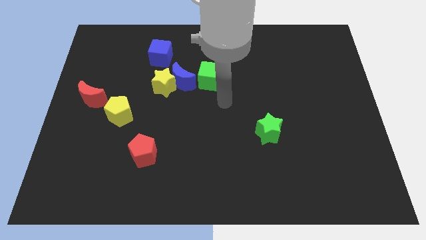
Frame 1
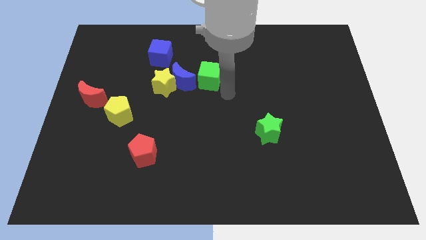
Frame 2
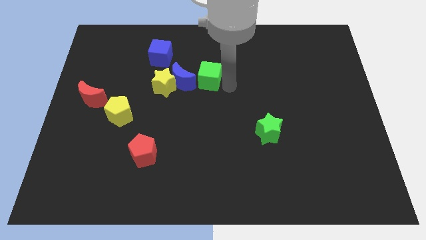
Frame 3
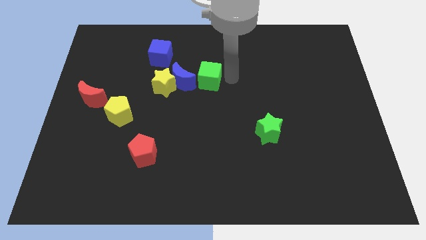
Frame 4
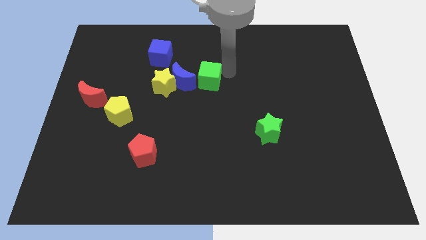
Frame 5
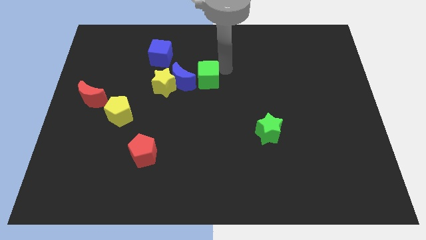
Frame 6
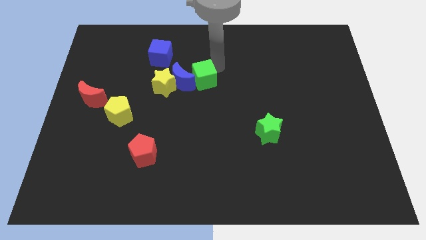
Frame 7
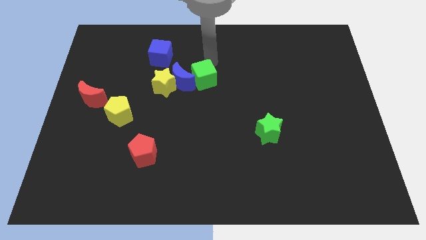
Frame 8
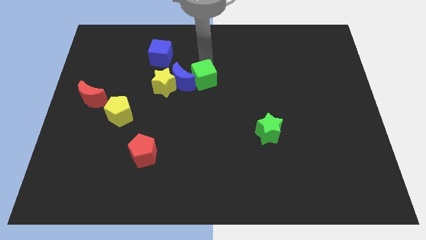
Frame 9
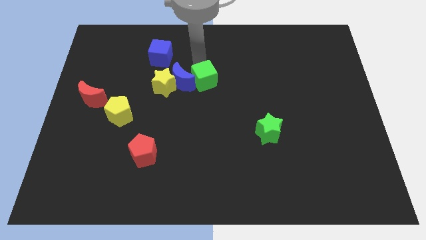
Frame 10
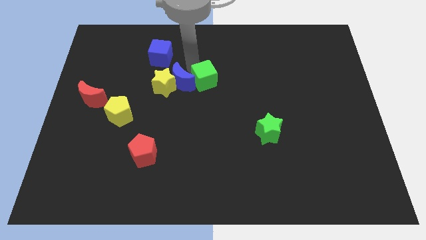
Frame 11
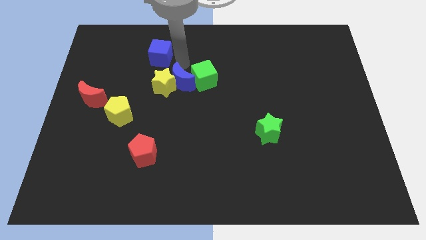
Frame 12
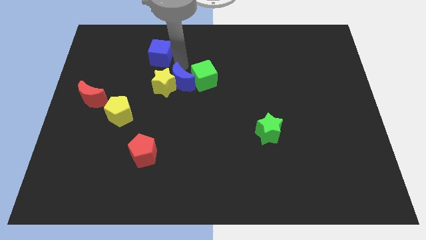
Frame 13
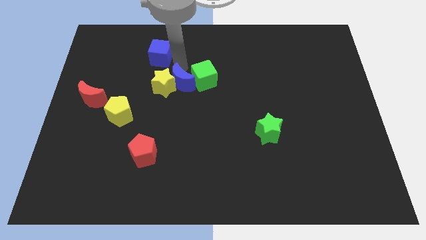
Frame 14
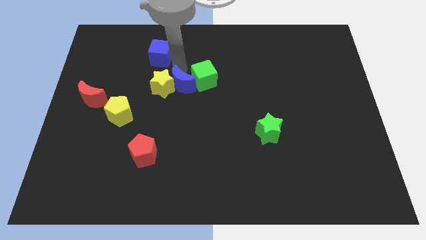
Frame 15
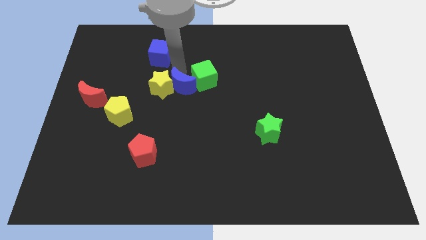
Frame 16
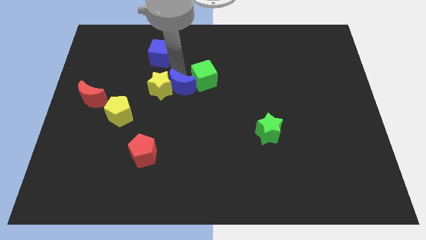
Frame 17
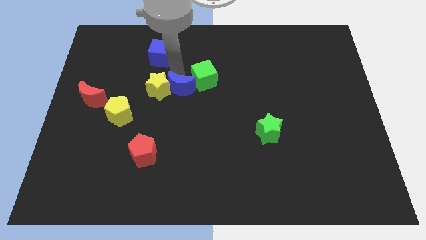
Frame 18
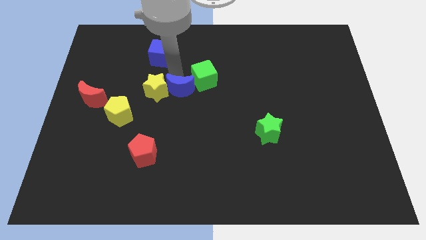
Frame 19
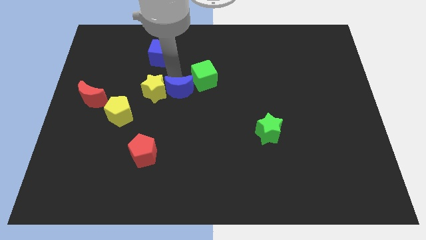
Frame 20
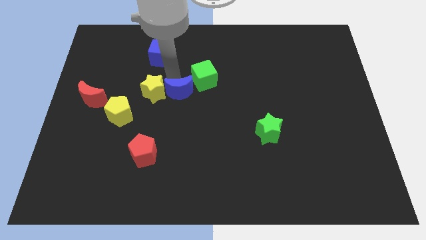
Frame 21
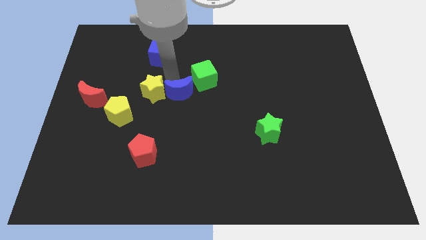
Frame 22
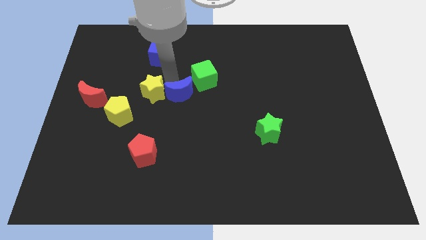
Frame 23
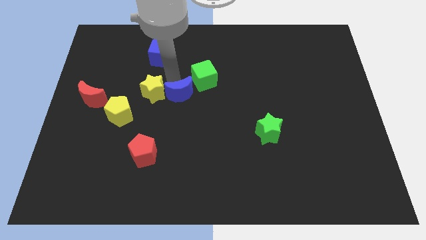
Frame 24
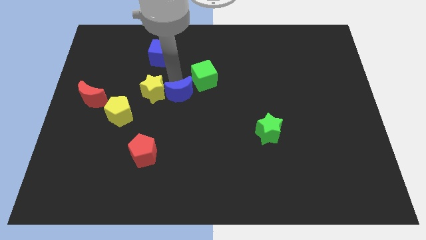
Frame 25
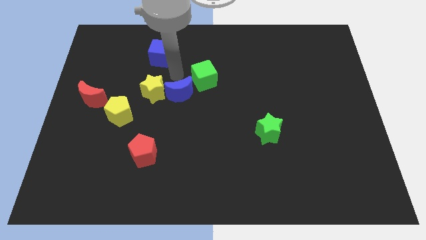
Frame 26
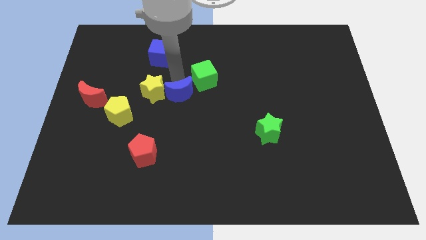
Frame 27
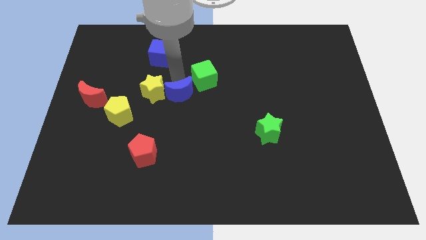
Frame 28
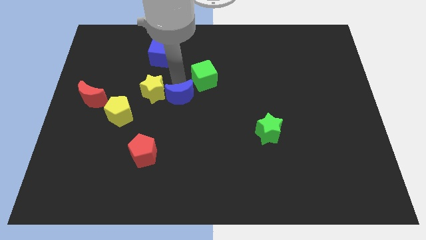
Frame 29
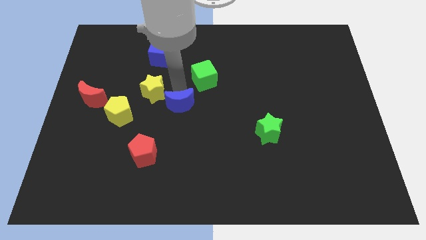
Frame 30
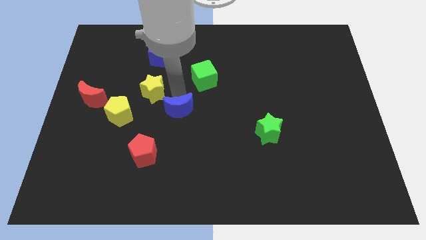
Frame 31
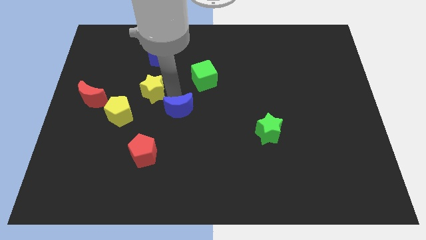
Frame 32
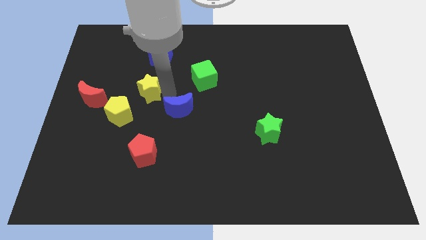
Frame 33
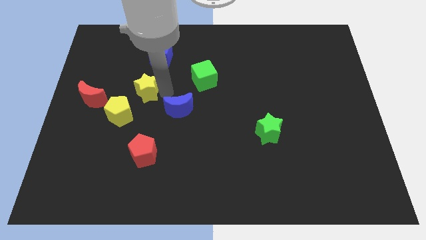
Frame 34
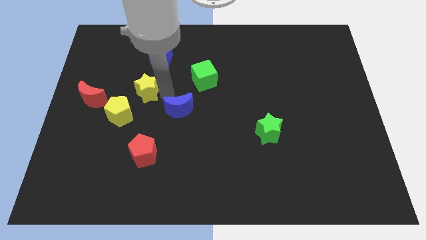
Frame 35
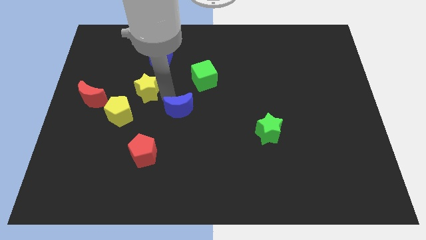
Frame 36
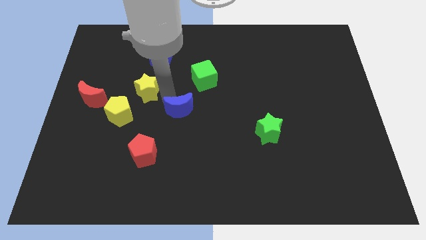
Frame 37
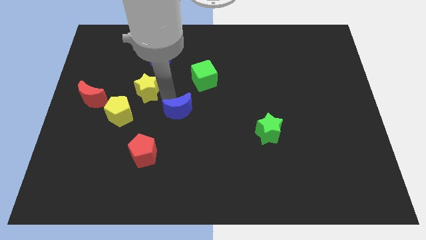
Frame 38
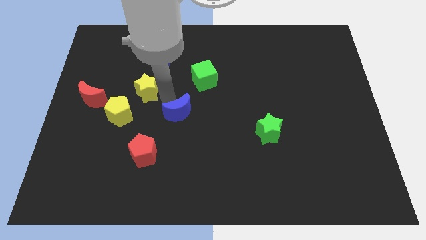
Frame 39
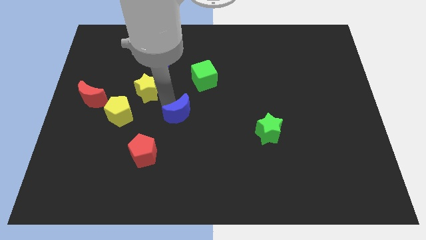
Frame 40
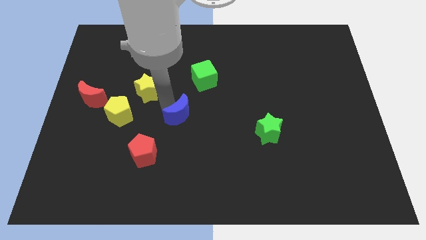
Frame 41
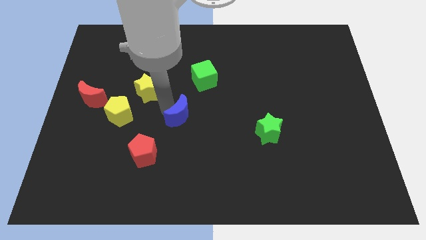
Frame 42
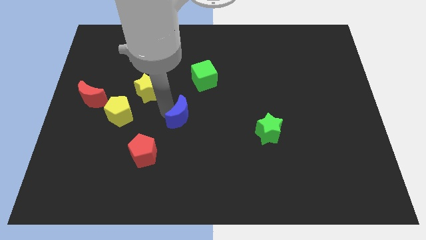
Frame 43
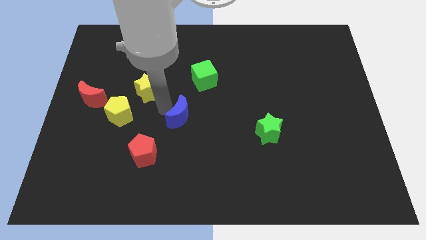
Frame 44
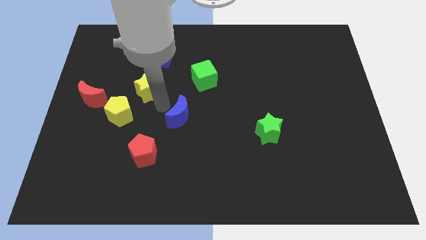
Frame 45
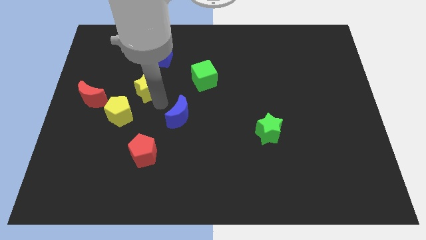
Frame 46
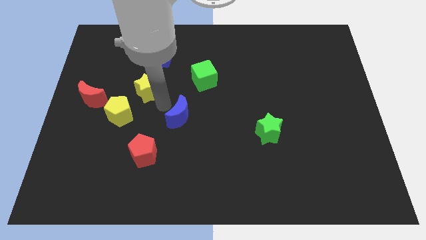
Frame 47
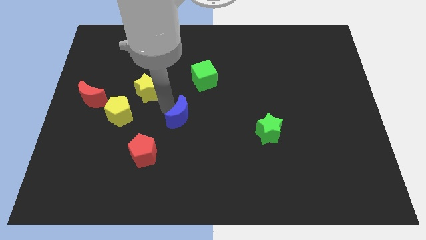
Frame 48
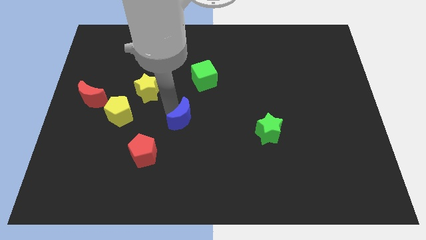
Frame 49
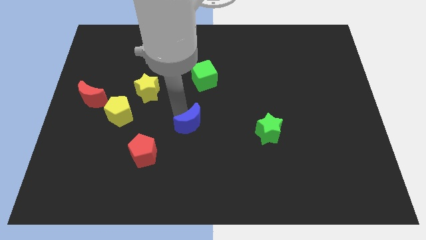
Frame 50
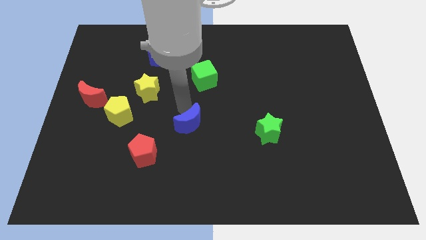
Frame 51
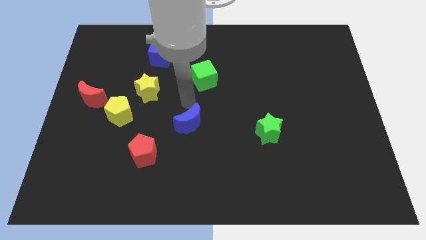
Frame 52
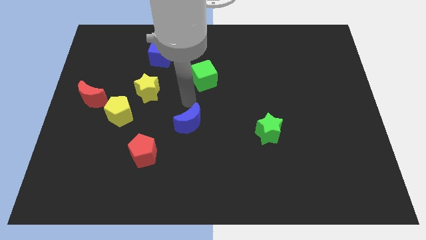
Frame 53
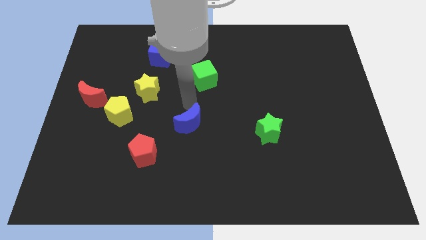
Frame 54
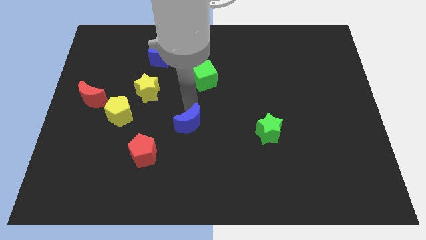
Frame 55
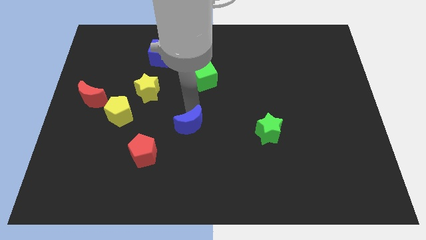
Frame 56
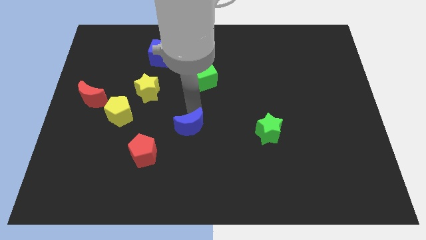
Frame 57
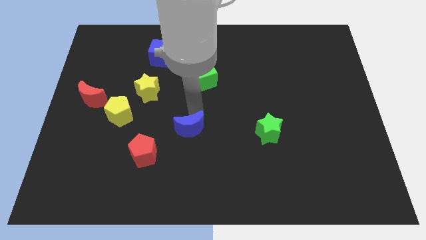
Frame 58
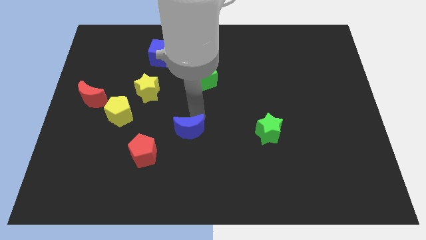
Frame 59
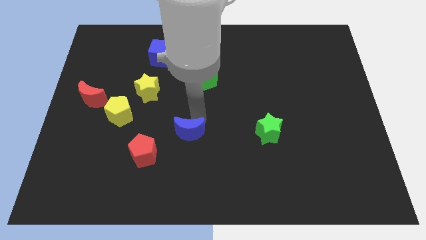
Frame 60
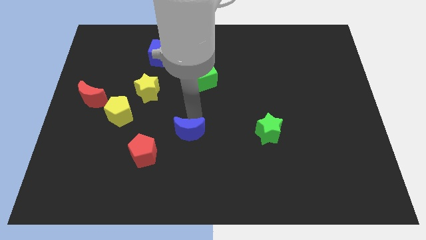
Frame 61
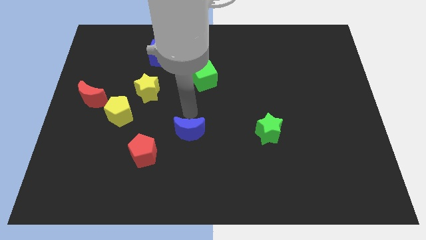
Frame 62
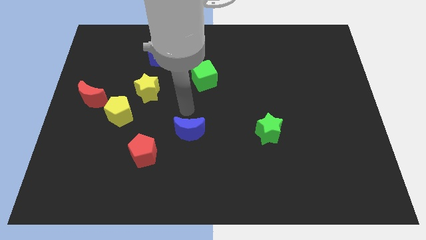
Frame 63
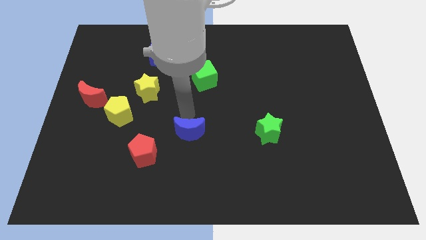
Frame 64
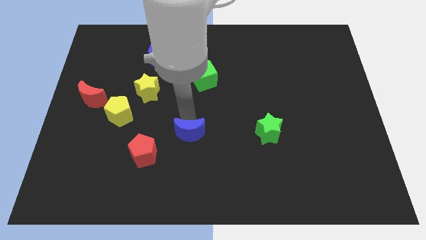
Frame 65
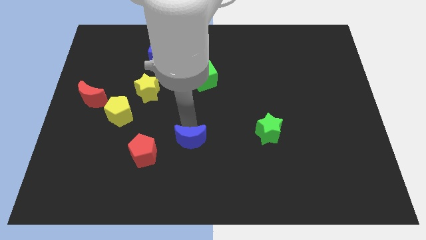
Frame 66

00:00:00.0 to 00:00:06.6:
push the blue moon right of the red pentagon

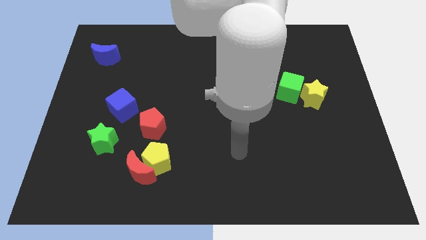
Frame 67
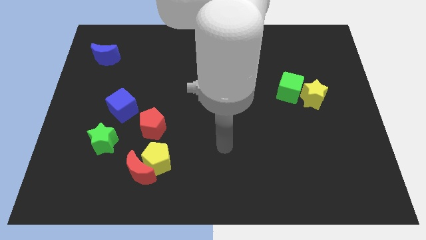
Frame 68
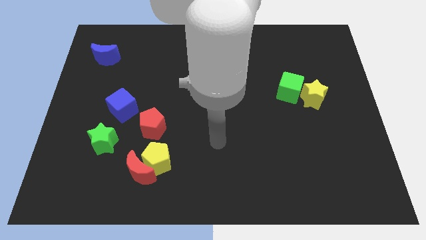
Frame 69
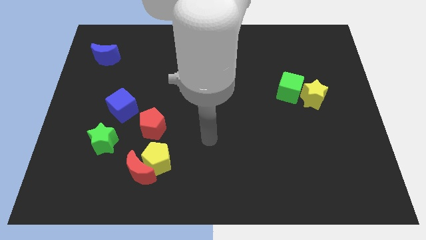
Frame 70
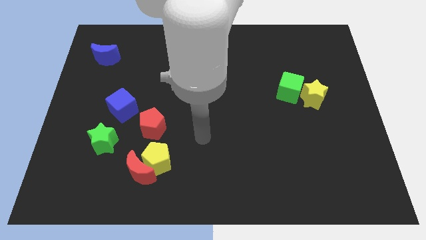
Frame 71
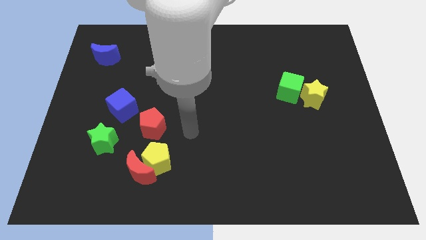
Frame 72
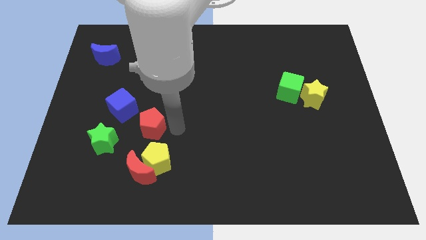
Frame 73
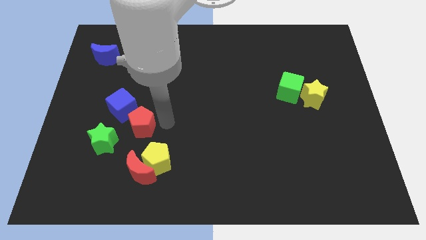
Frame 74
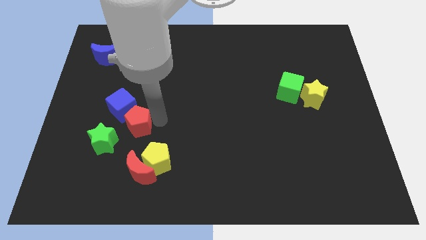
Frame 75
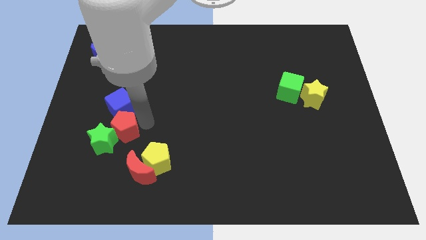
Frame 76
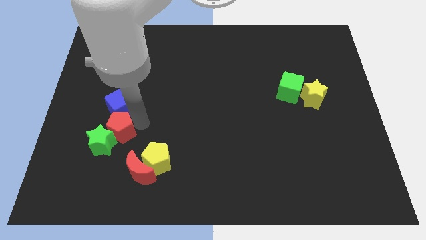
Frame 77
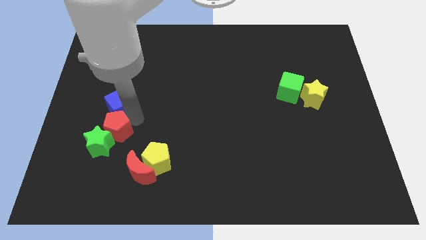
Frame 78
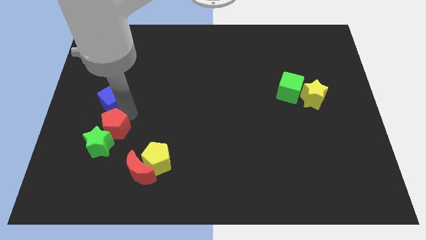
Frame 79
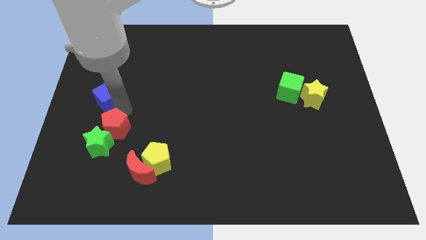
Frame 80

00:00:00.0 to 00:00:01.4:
push the blue cube to the bottom of the blue moon
